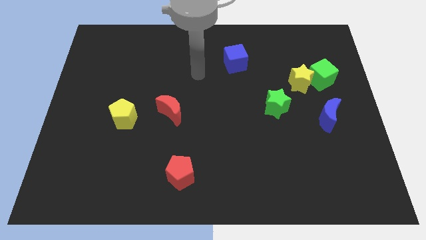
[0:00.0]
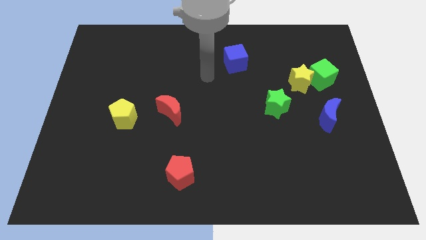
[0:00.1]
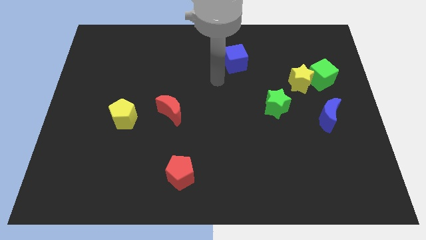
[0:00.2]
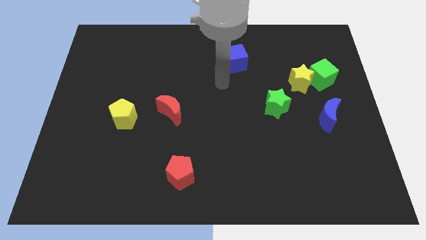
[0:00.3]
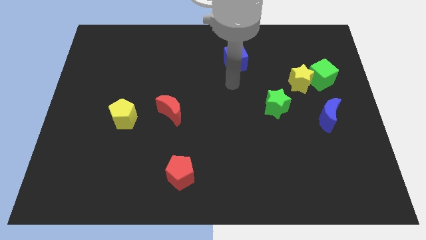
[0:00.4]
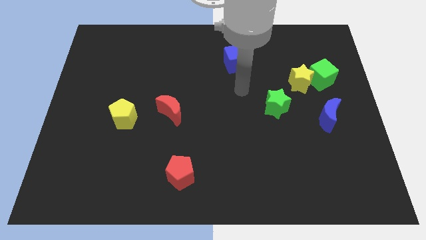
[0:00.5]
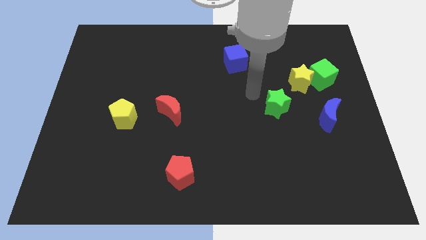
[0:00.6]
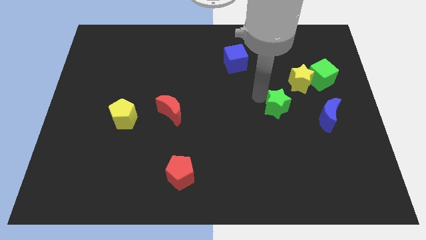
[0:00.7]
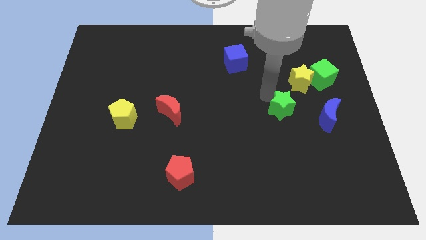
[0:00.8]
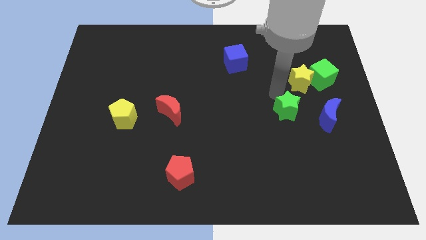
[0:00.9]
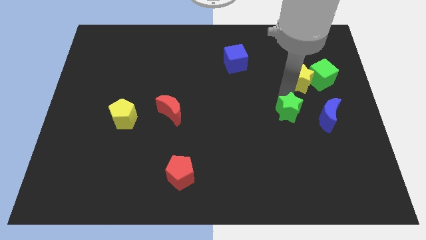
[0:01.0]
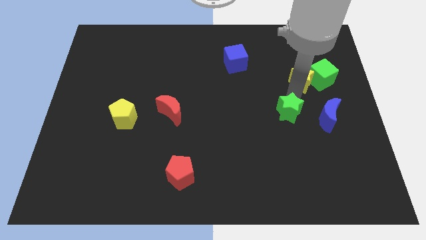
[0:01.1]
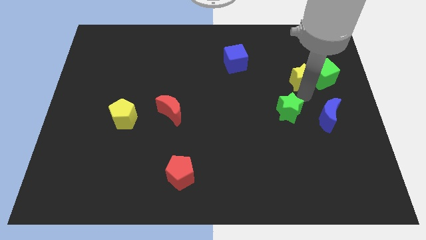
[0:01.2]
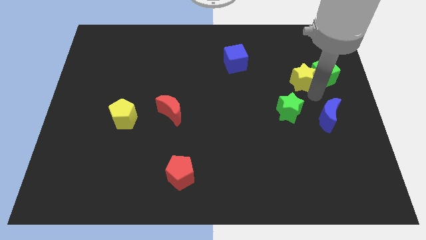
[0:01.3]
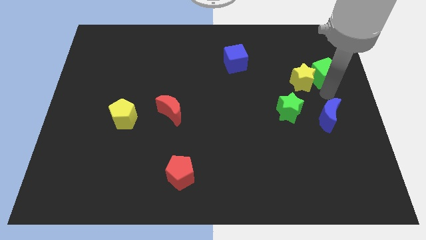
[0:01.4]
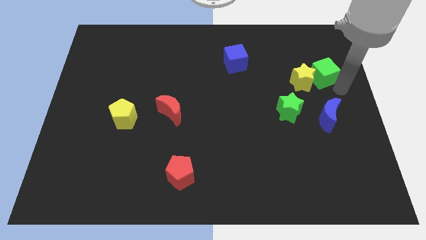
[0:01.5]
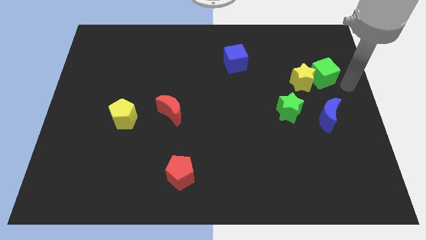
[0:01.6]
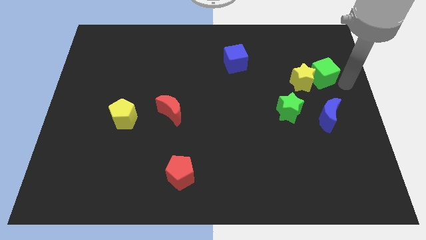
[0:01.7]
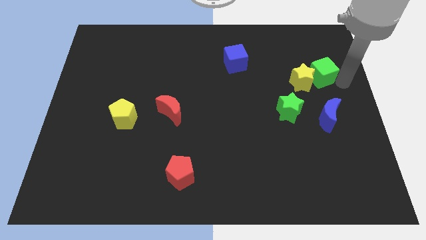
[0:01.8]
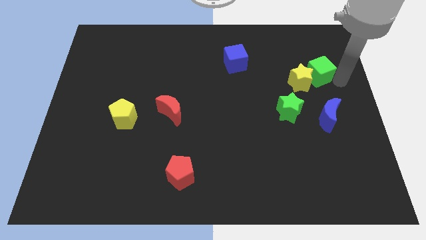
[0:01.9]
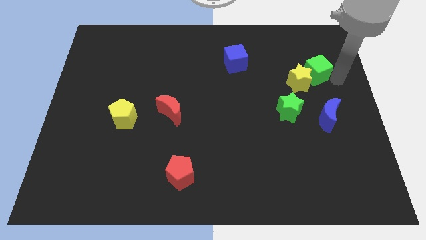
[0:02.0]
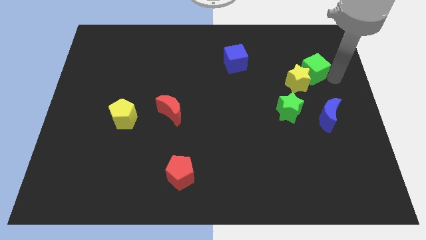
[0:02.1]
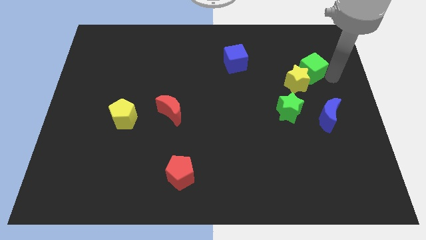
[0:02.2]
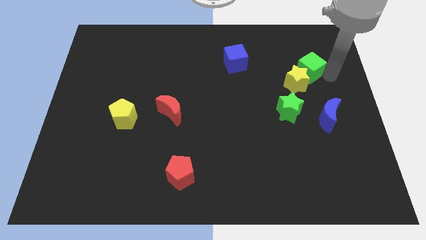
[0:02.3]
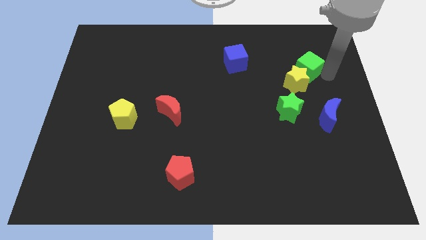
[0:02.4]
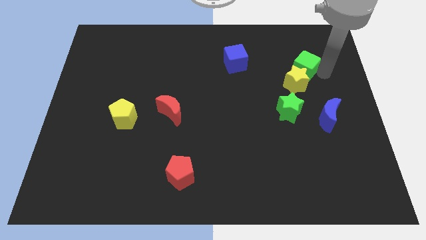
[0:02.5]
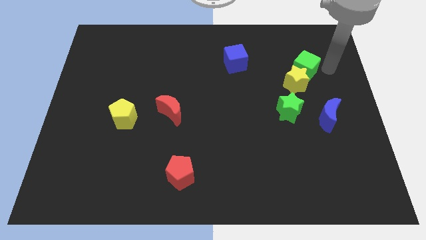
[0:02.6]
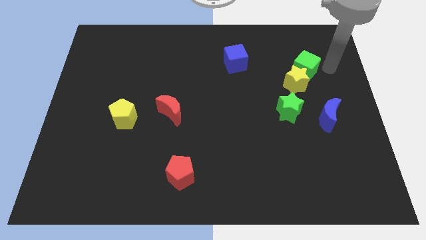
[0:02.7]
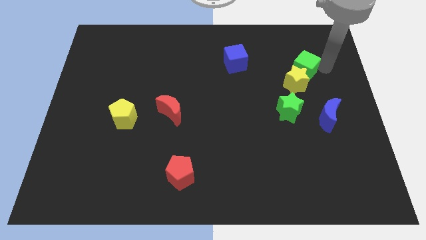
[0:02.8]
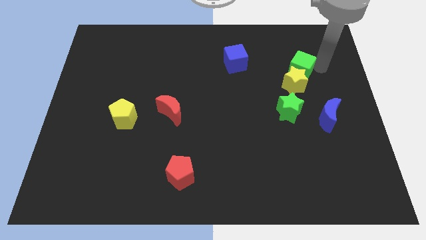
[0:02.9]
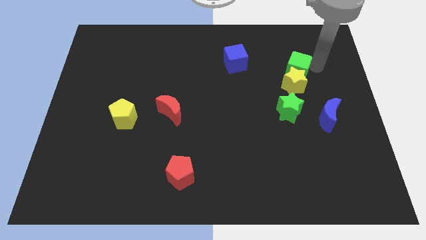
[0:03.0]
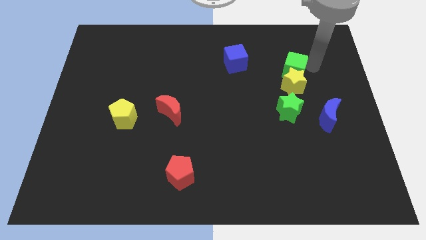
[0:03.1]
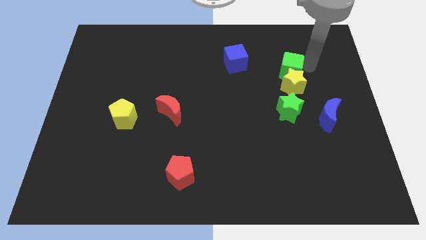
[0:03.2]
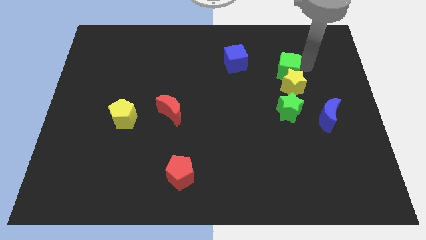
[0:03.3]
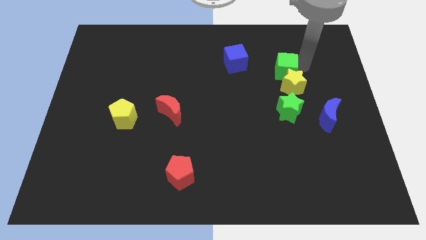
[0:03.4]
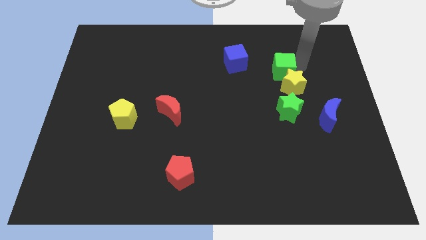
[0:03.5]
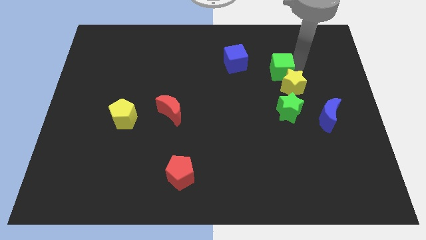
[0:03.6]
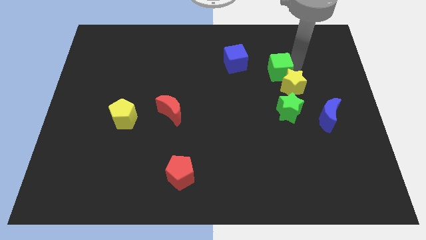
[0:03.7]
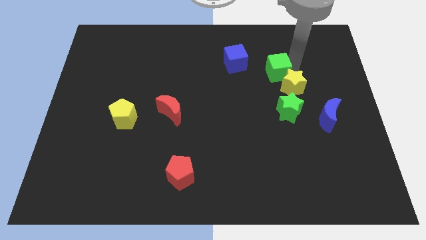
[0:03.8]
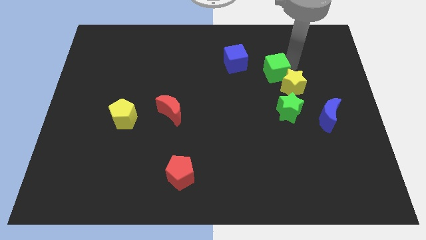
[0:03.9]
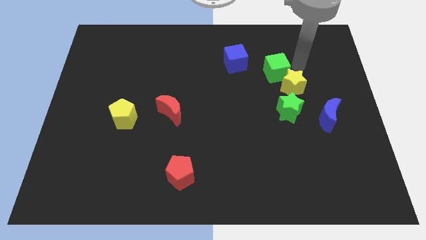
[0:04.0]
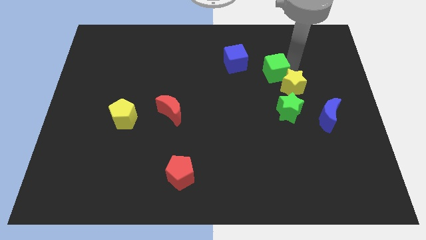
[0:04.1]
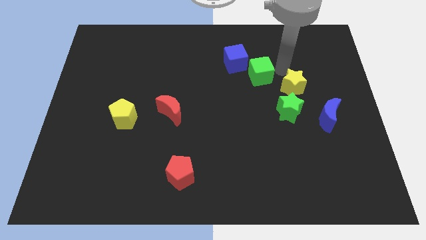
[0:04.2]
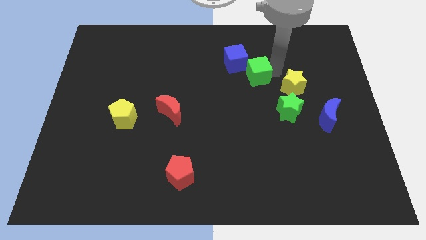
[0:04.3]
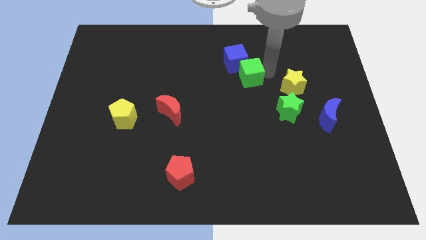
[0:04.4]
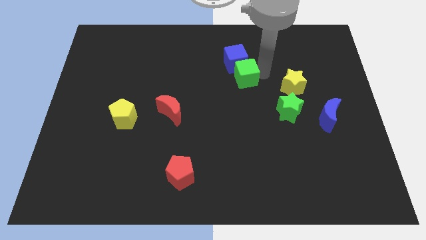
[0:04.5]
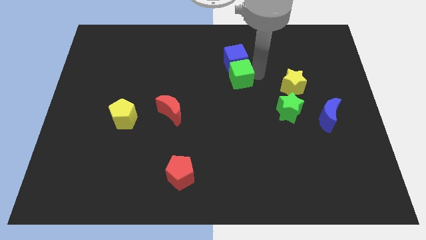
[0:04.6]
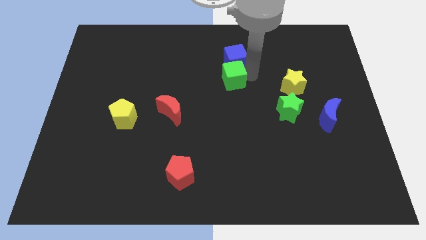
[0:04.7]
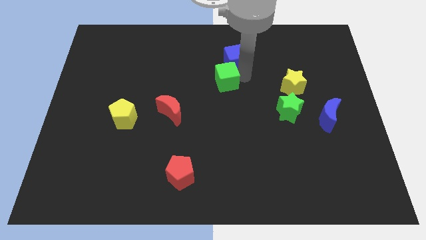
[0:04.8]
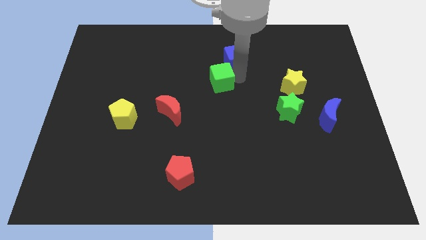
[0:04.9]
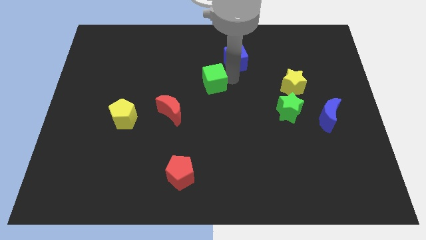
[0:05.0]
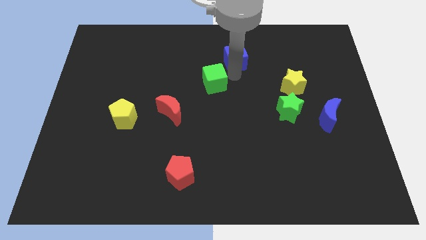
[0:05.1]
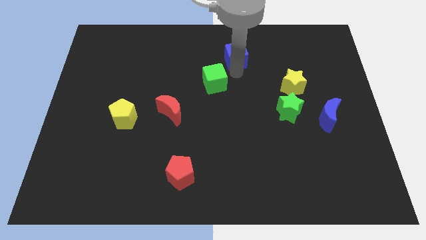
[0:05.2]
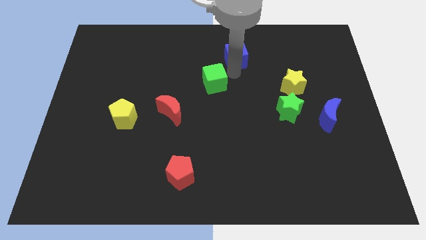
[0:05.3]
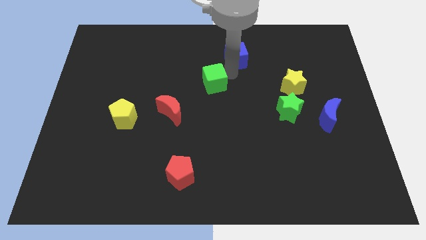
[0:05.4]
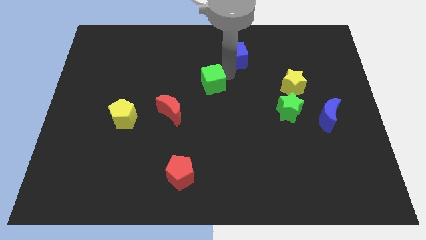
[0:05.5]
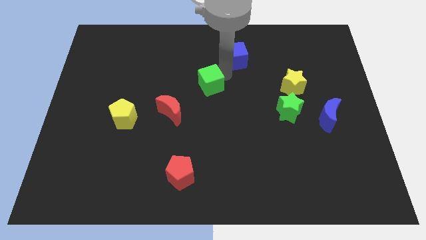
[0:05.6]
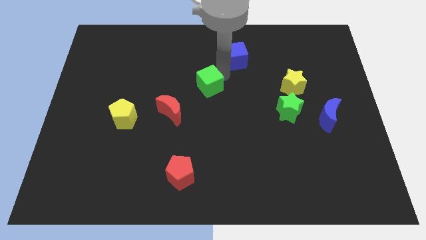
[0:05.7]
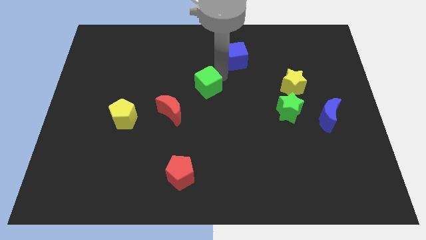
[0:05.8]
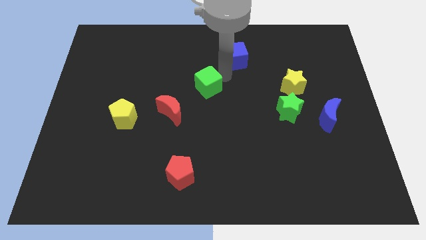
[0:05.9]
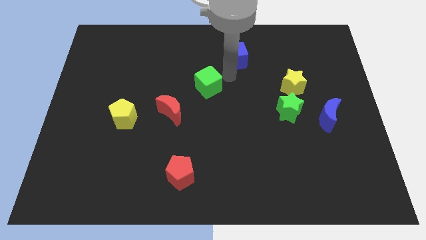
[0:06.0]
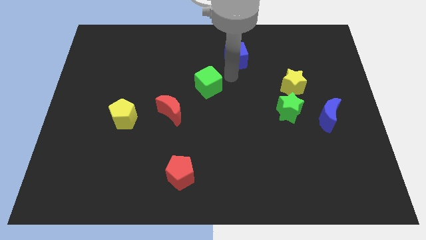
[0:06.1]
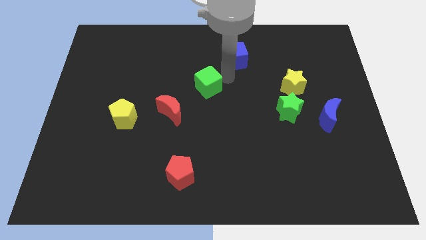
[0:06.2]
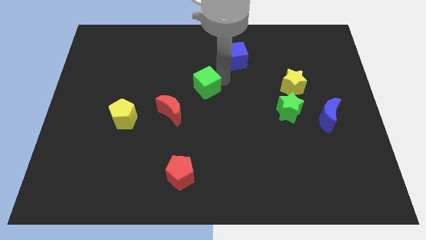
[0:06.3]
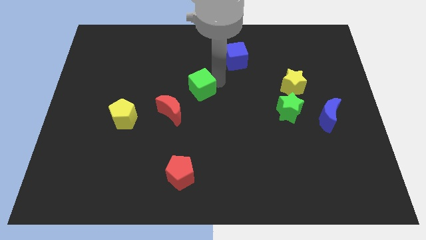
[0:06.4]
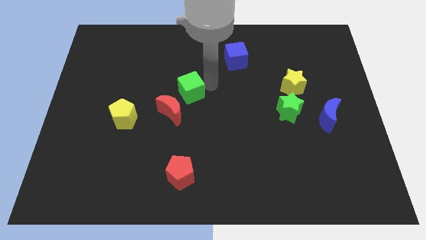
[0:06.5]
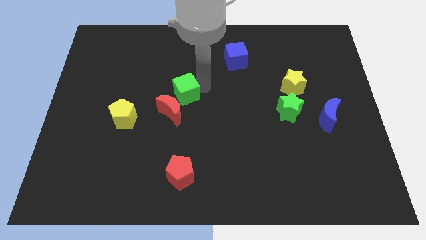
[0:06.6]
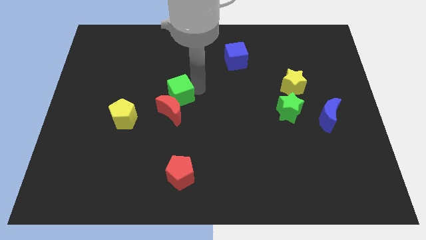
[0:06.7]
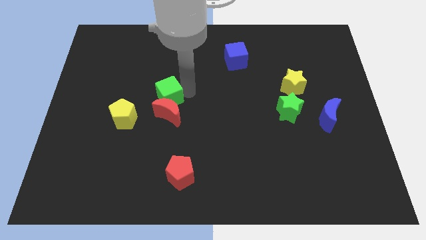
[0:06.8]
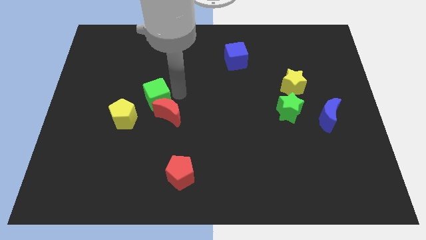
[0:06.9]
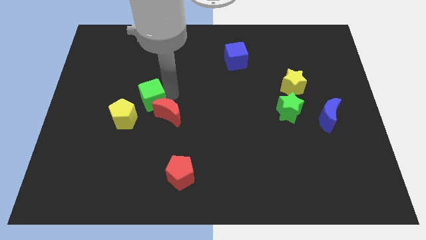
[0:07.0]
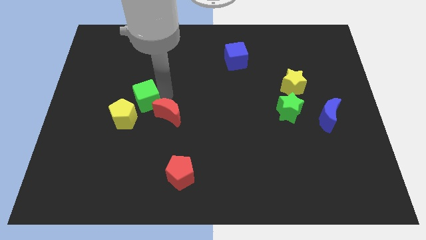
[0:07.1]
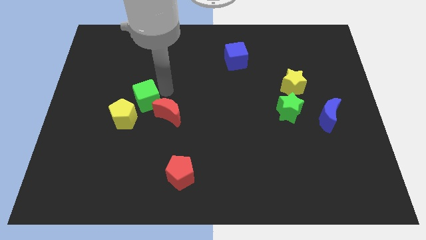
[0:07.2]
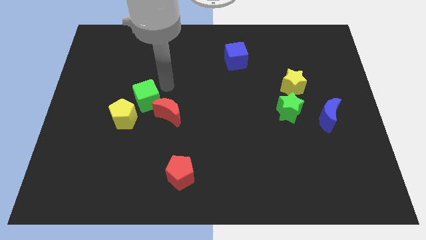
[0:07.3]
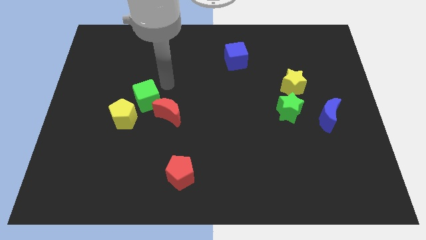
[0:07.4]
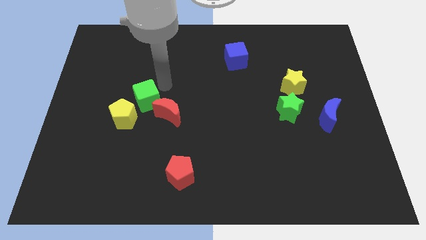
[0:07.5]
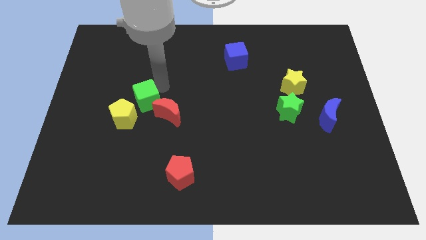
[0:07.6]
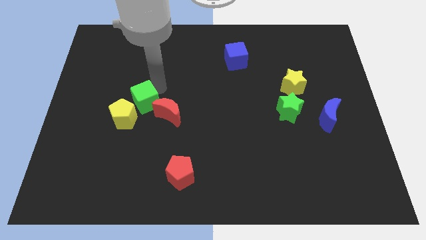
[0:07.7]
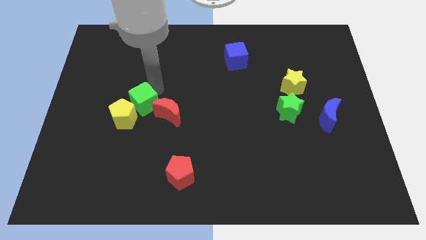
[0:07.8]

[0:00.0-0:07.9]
put the green cube close to the yellow pentagon
